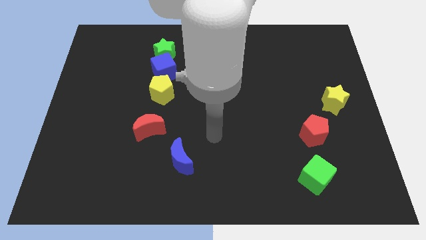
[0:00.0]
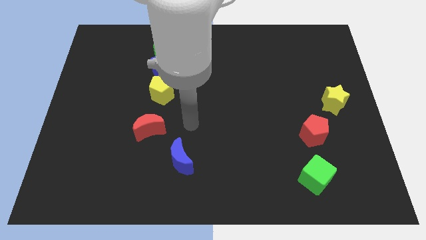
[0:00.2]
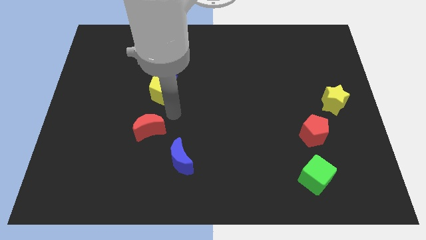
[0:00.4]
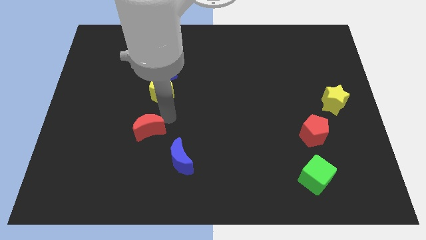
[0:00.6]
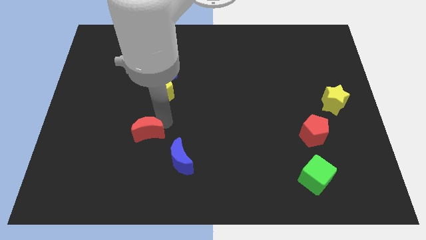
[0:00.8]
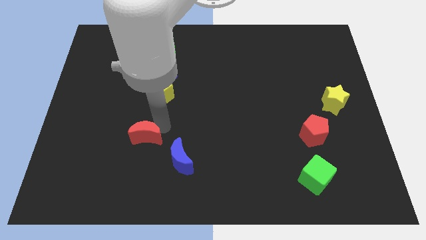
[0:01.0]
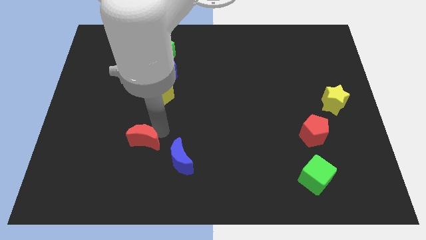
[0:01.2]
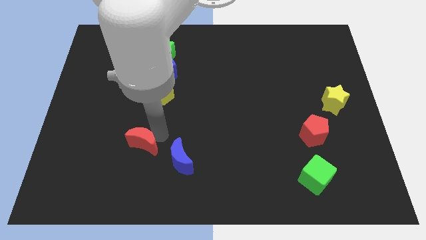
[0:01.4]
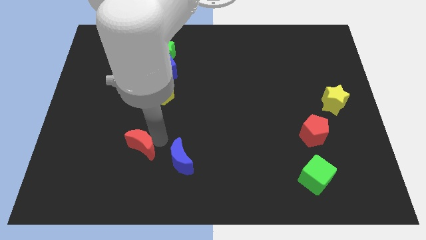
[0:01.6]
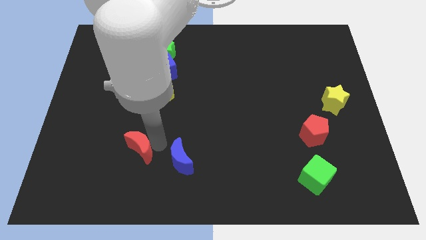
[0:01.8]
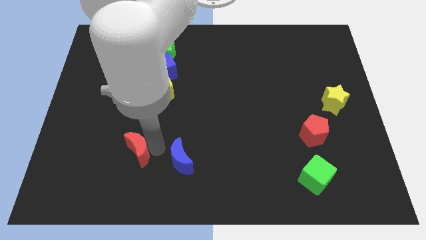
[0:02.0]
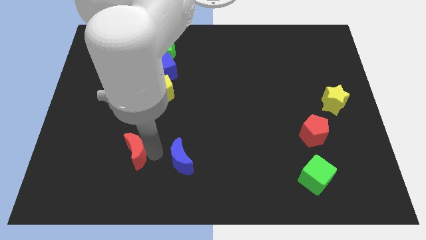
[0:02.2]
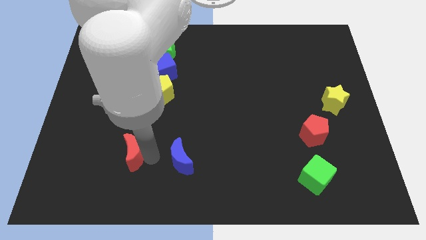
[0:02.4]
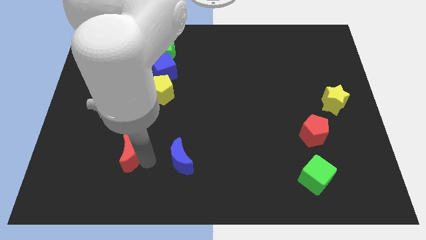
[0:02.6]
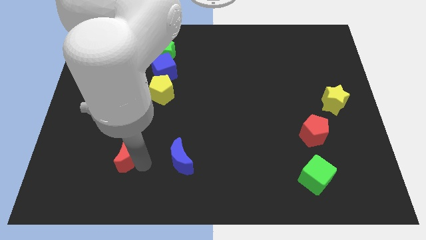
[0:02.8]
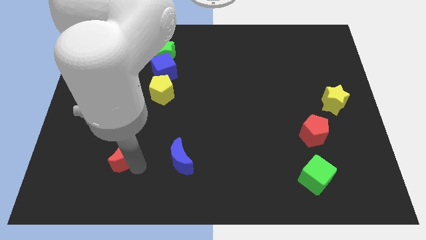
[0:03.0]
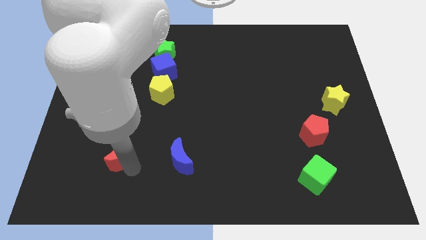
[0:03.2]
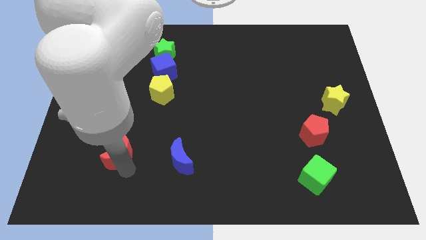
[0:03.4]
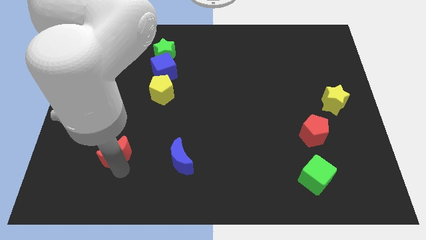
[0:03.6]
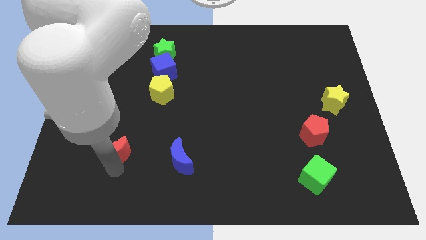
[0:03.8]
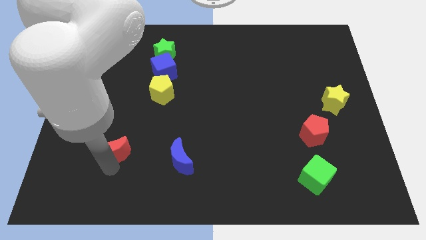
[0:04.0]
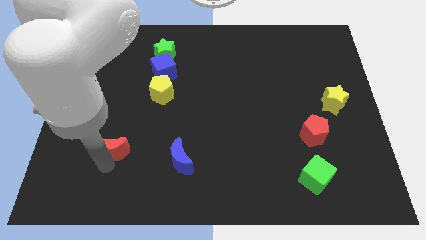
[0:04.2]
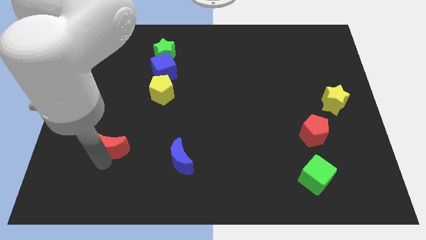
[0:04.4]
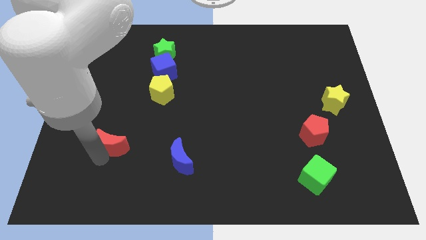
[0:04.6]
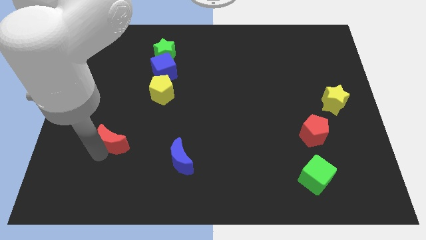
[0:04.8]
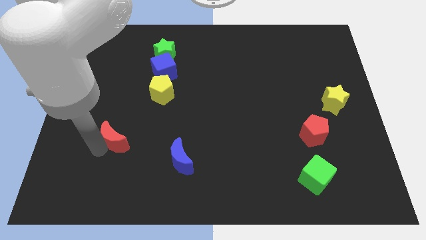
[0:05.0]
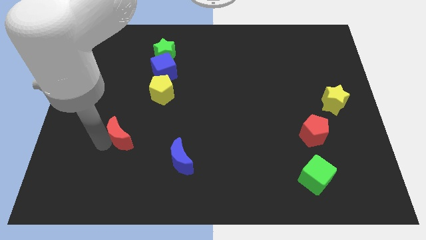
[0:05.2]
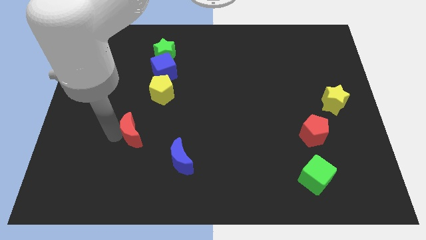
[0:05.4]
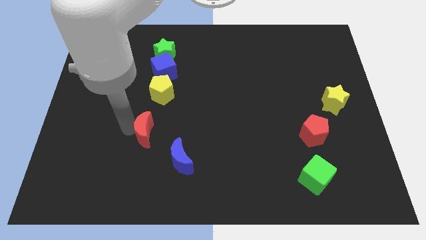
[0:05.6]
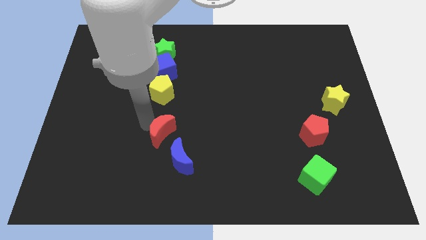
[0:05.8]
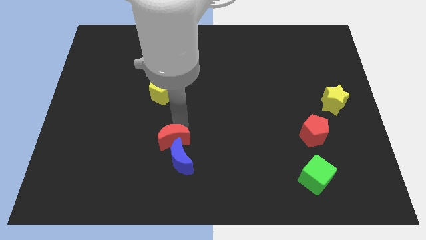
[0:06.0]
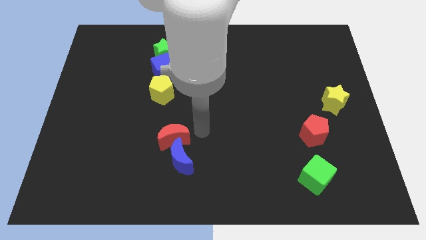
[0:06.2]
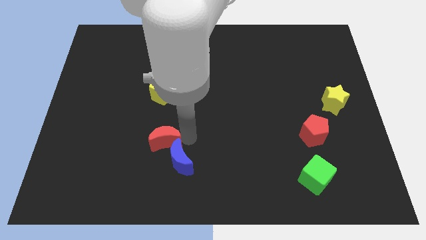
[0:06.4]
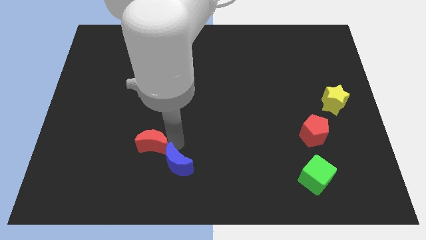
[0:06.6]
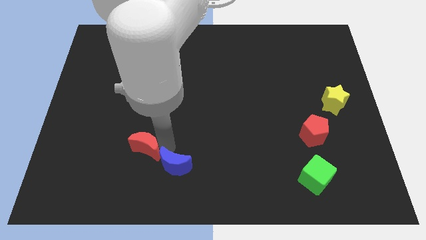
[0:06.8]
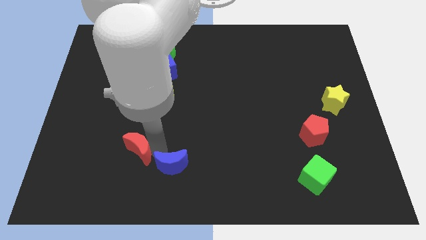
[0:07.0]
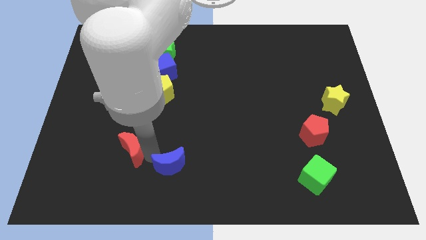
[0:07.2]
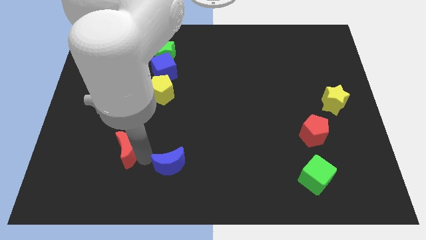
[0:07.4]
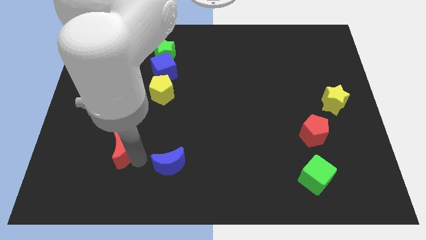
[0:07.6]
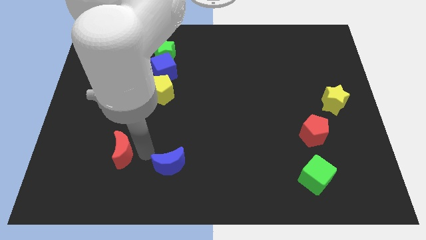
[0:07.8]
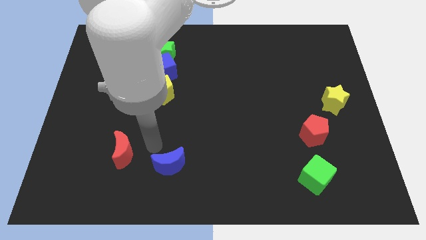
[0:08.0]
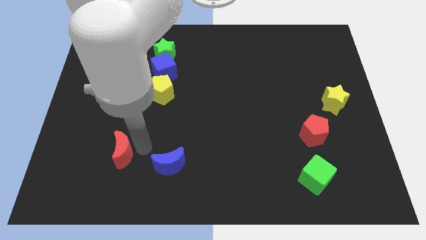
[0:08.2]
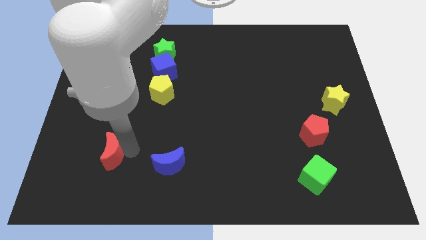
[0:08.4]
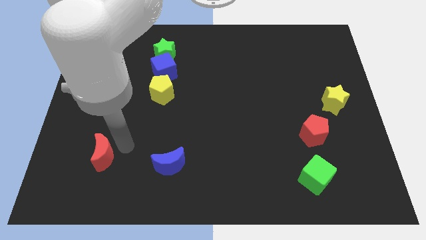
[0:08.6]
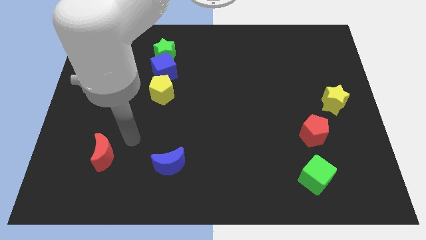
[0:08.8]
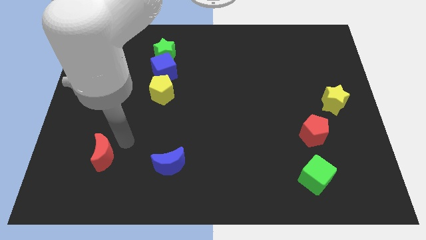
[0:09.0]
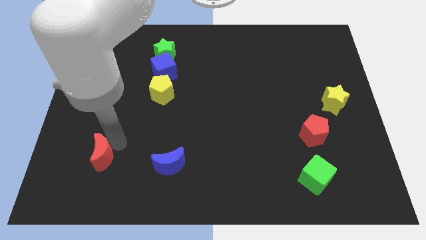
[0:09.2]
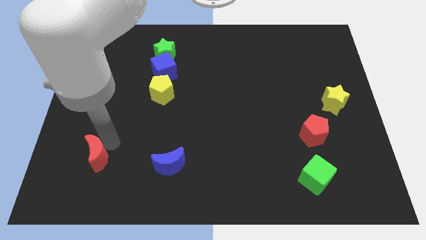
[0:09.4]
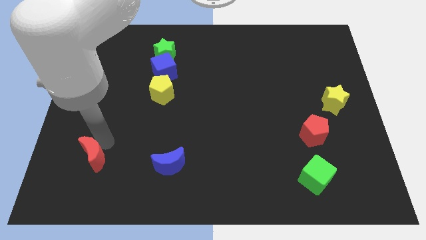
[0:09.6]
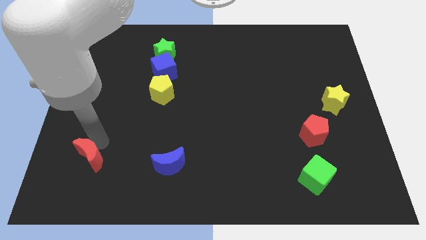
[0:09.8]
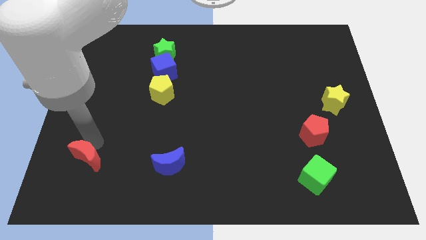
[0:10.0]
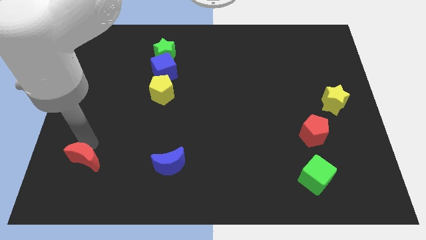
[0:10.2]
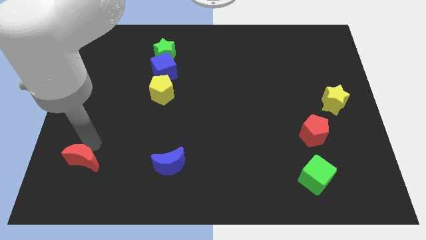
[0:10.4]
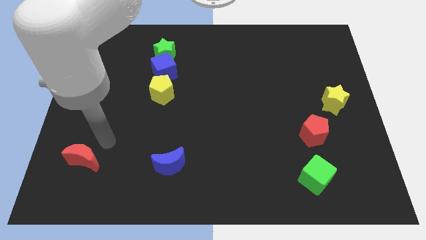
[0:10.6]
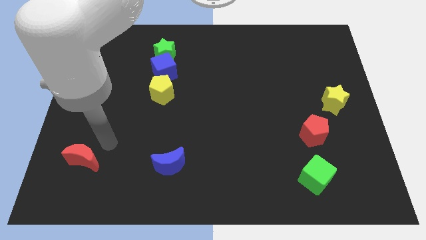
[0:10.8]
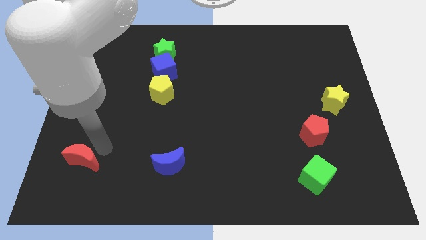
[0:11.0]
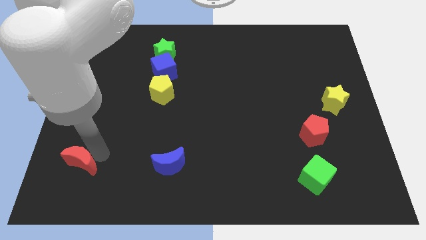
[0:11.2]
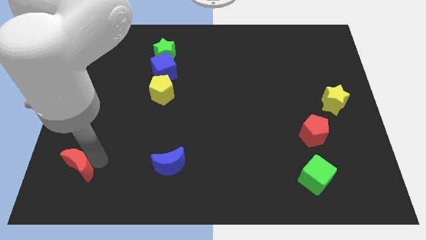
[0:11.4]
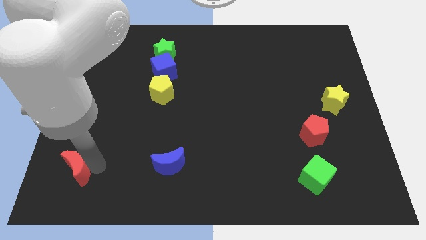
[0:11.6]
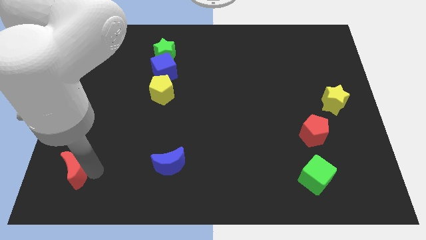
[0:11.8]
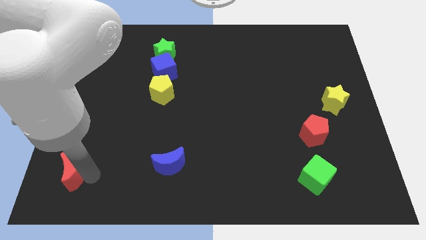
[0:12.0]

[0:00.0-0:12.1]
slide the red moon to the lower left corner

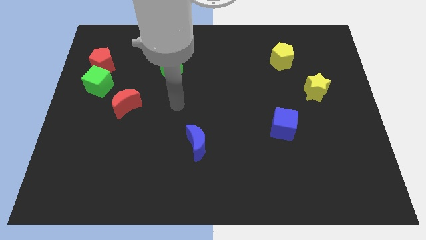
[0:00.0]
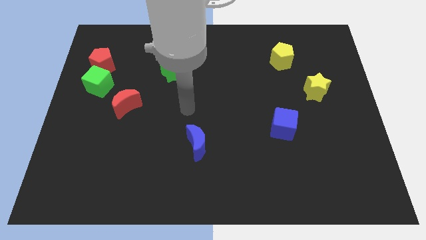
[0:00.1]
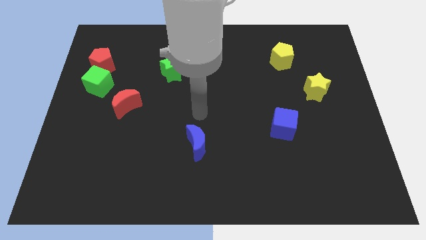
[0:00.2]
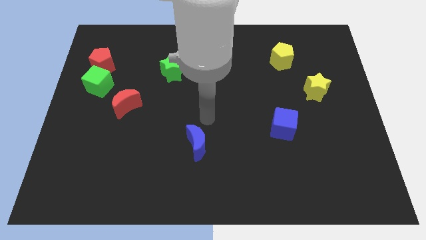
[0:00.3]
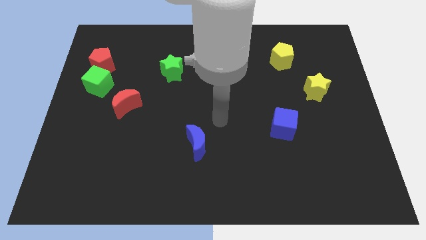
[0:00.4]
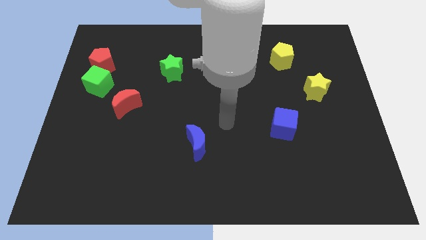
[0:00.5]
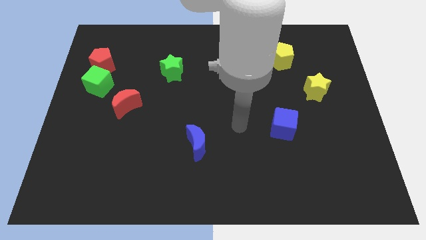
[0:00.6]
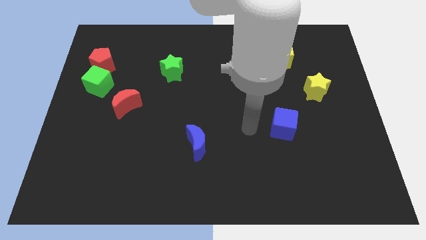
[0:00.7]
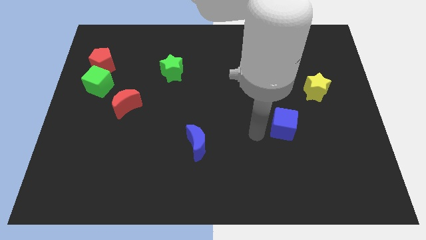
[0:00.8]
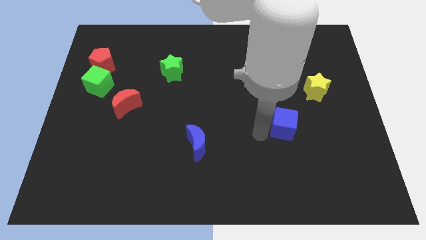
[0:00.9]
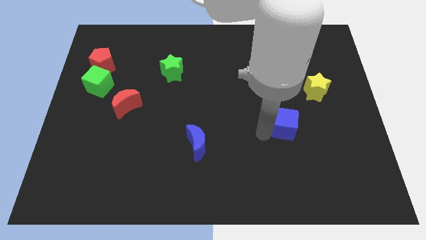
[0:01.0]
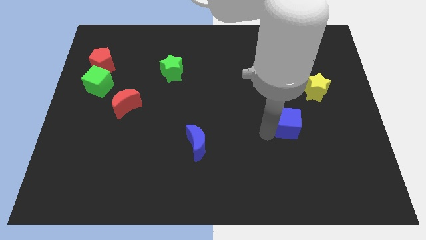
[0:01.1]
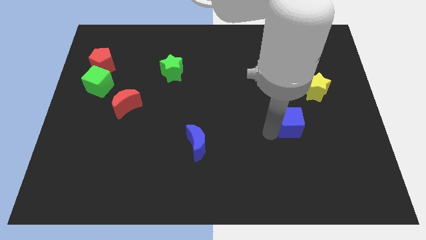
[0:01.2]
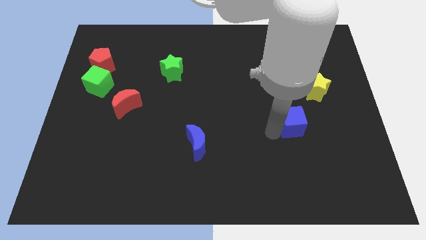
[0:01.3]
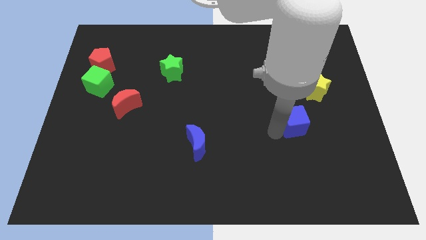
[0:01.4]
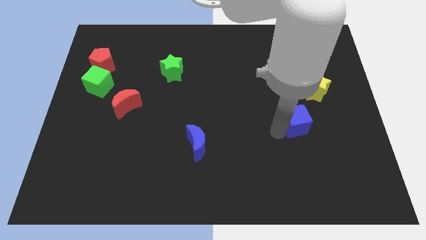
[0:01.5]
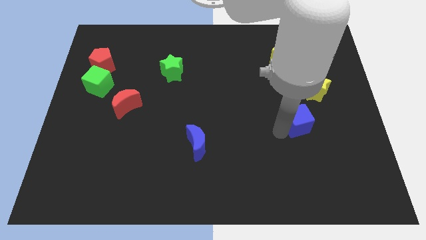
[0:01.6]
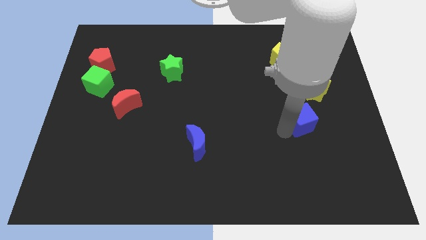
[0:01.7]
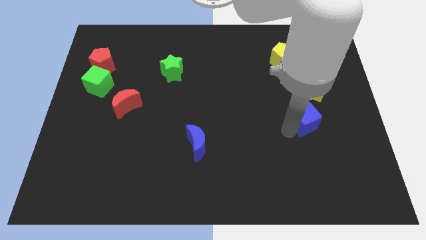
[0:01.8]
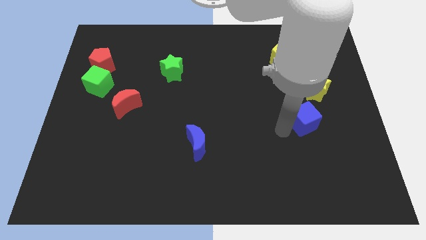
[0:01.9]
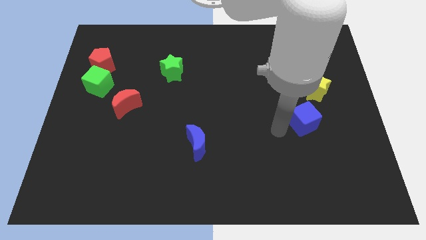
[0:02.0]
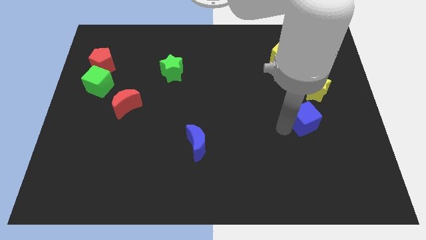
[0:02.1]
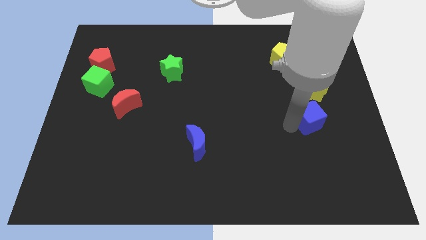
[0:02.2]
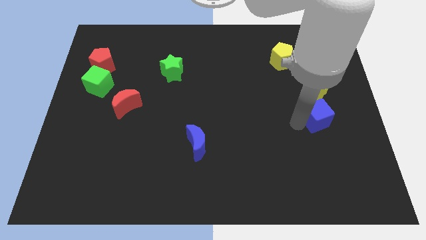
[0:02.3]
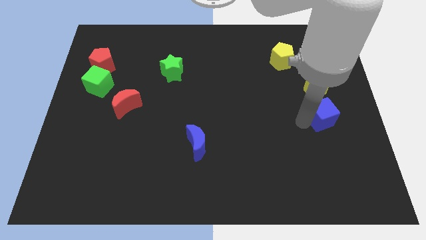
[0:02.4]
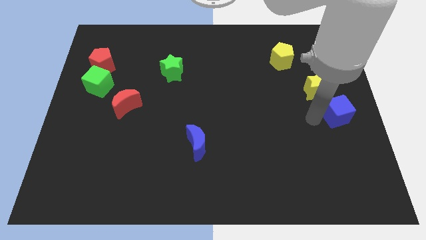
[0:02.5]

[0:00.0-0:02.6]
put the blue cube to the right side
